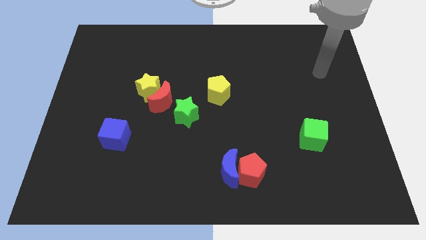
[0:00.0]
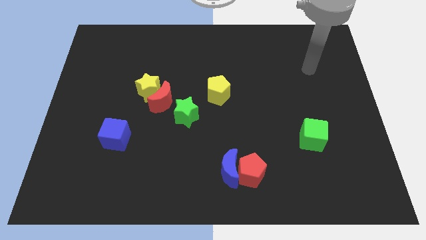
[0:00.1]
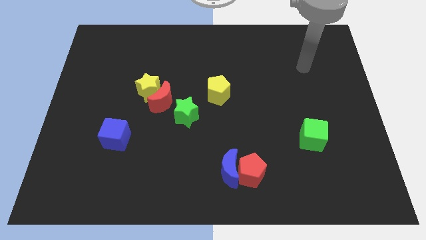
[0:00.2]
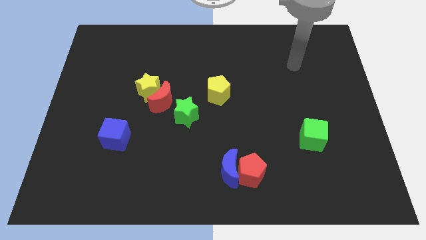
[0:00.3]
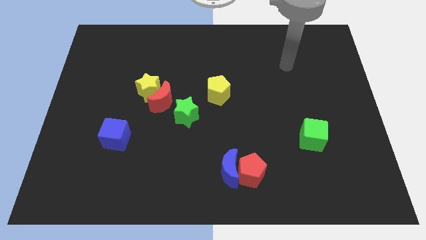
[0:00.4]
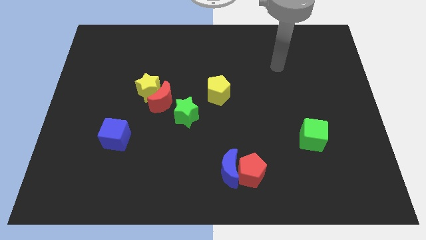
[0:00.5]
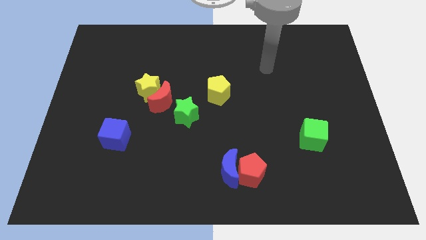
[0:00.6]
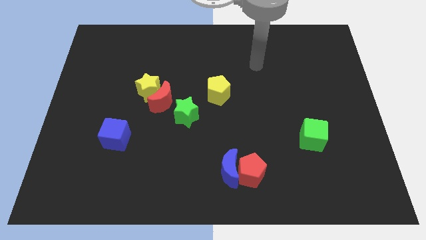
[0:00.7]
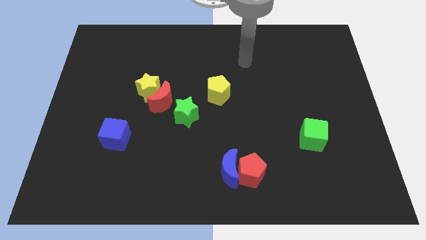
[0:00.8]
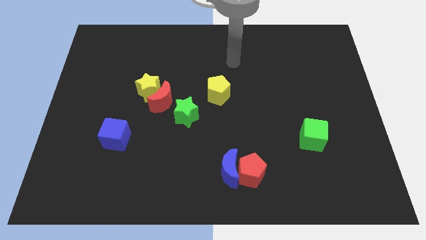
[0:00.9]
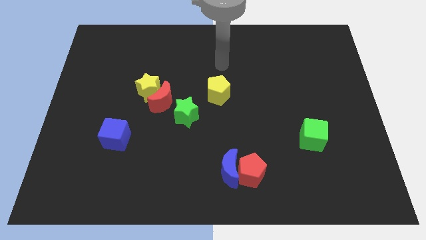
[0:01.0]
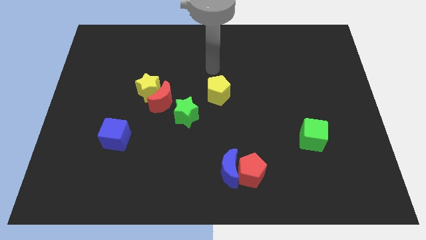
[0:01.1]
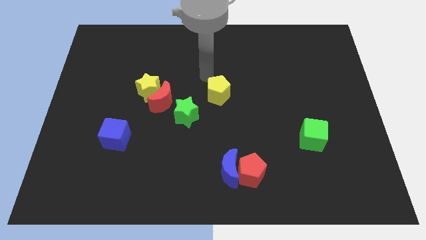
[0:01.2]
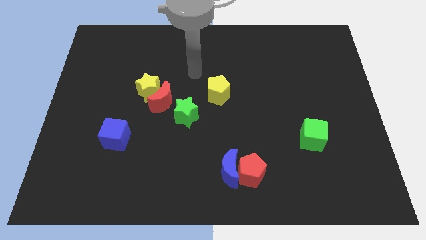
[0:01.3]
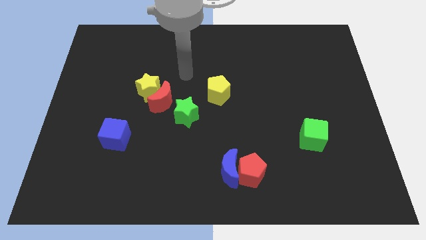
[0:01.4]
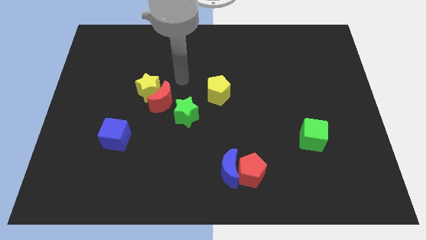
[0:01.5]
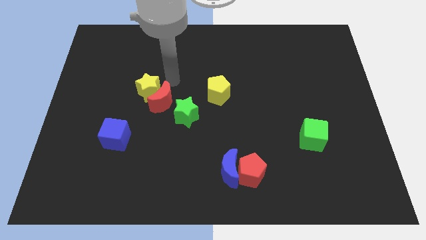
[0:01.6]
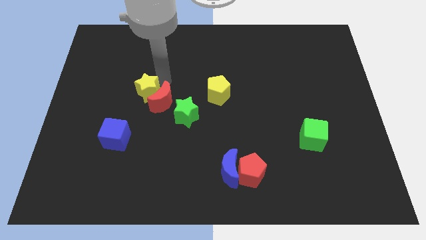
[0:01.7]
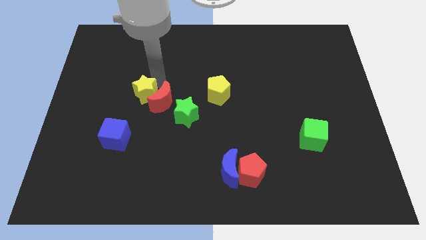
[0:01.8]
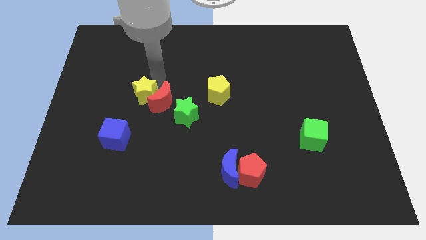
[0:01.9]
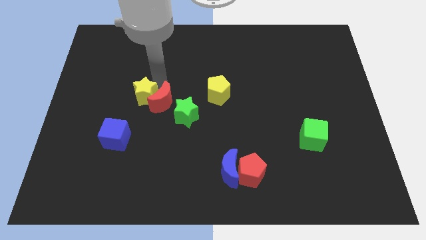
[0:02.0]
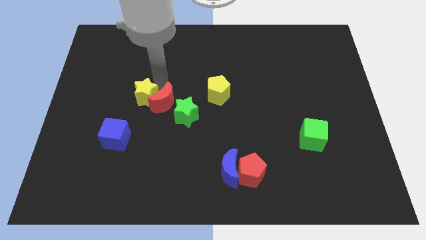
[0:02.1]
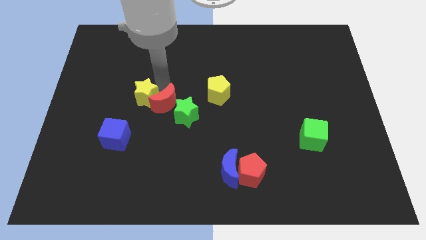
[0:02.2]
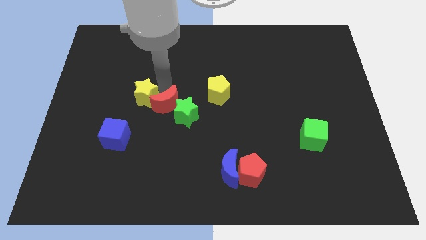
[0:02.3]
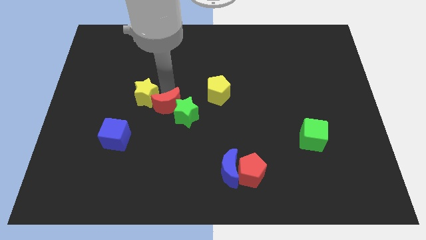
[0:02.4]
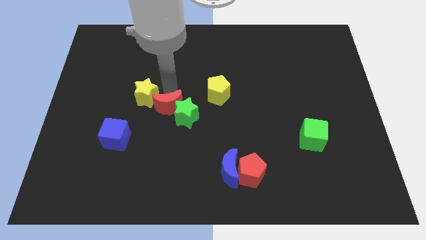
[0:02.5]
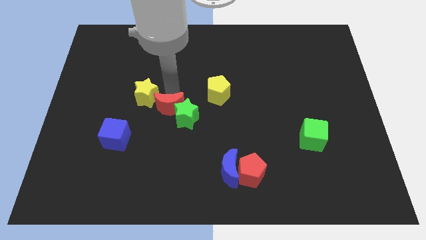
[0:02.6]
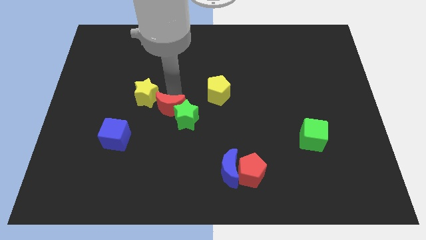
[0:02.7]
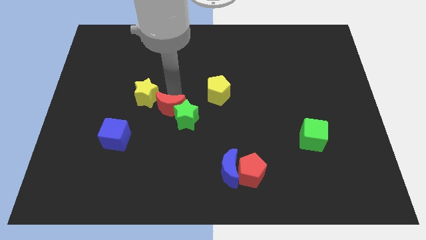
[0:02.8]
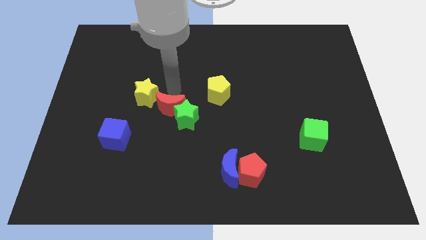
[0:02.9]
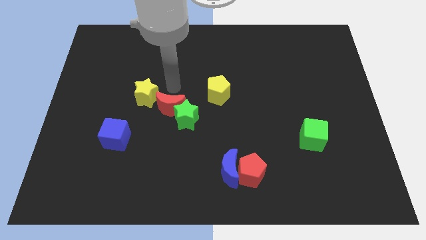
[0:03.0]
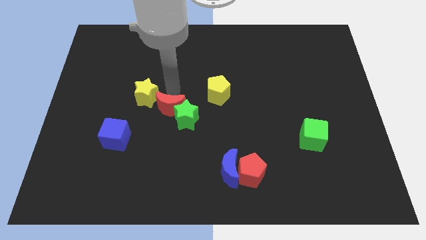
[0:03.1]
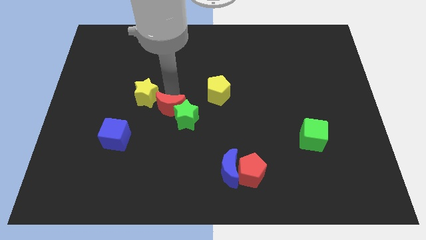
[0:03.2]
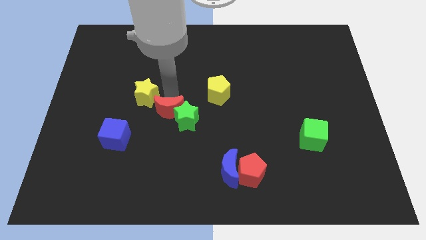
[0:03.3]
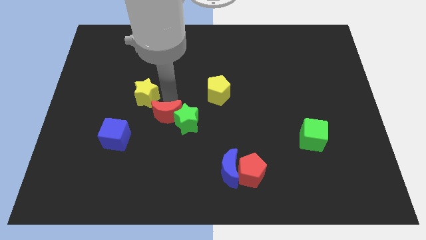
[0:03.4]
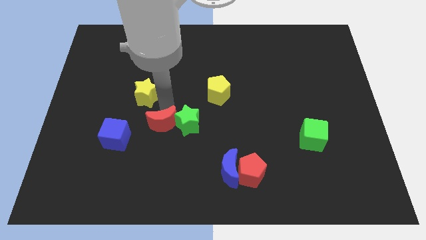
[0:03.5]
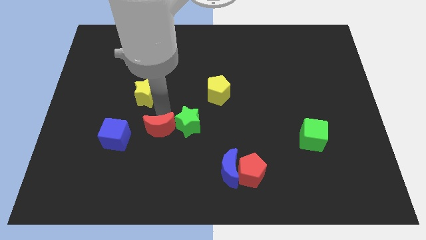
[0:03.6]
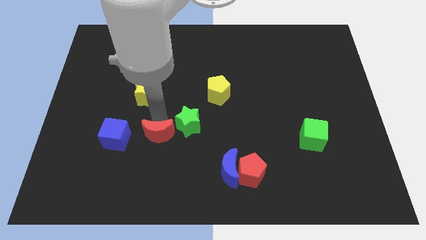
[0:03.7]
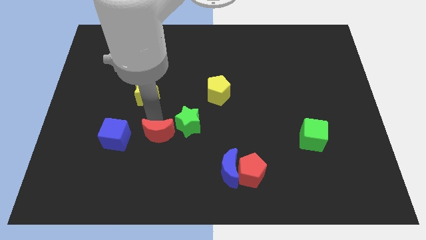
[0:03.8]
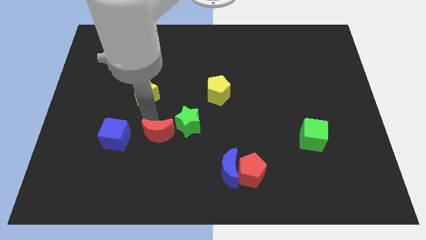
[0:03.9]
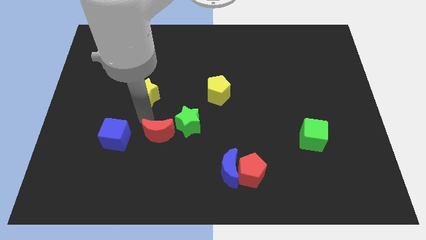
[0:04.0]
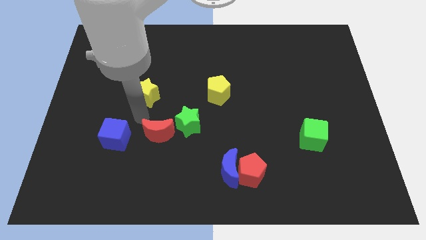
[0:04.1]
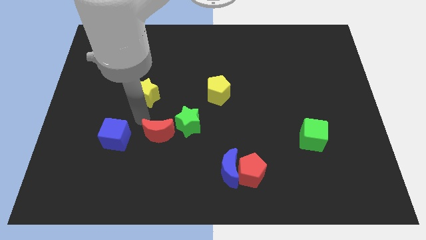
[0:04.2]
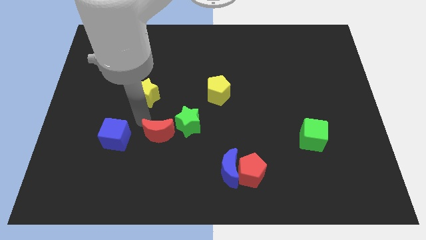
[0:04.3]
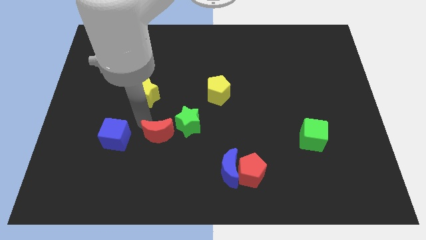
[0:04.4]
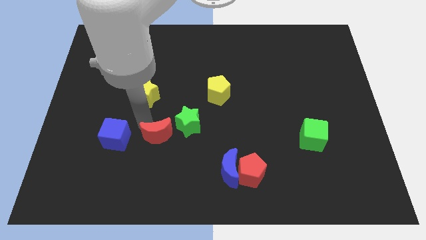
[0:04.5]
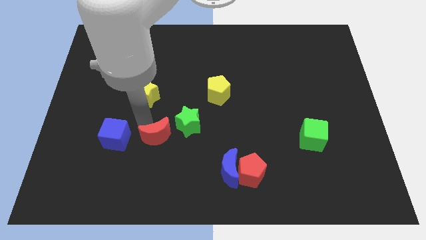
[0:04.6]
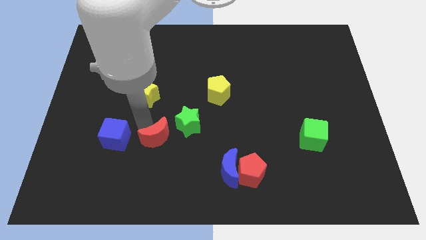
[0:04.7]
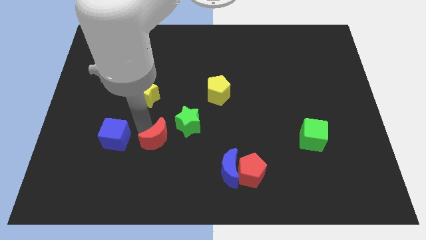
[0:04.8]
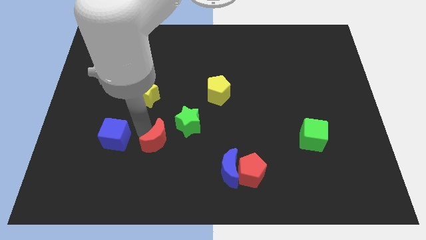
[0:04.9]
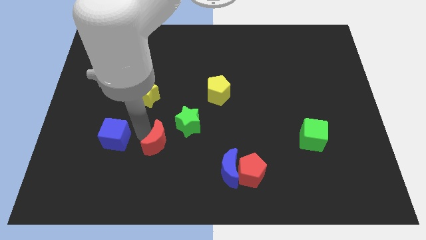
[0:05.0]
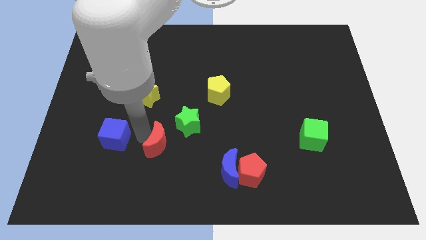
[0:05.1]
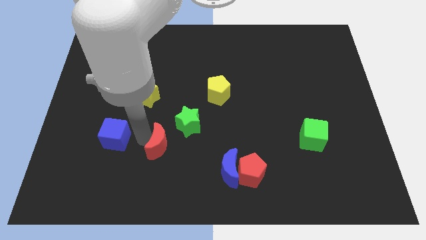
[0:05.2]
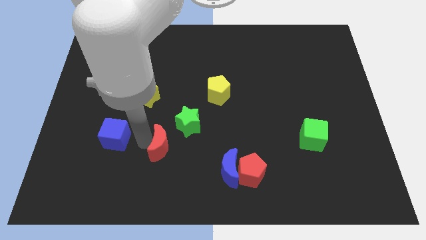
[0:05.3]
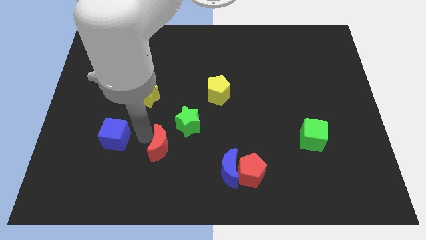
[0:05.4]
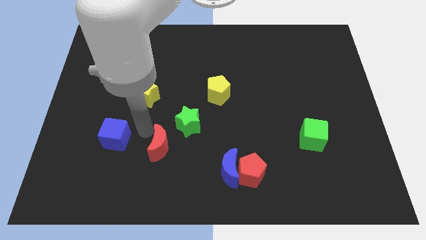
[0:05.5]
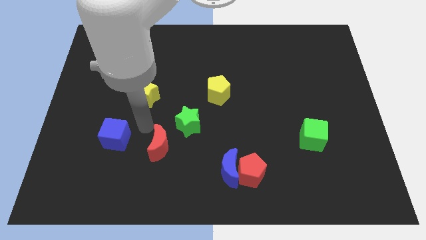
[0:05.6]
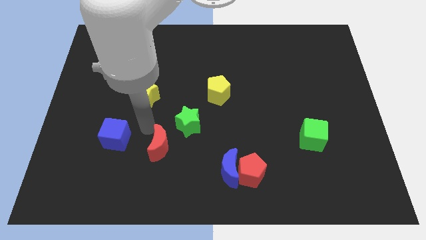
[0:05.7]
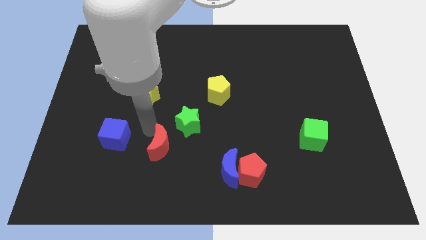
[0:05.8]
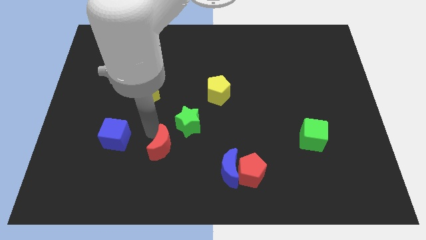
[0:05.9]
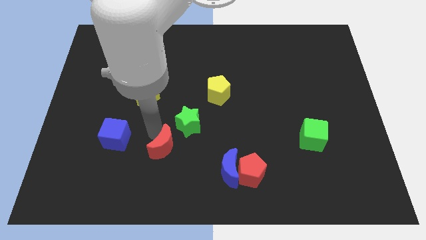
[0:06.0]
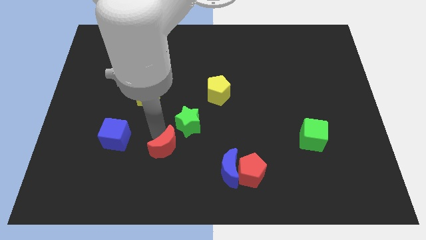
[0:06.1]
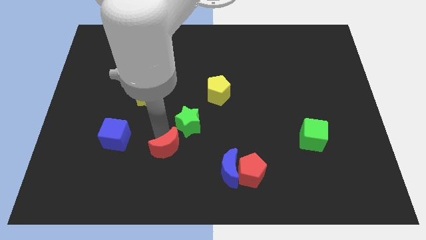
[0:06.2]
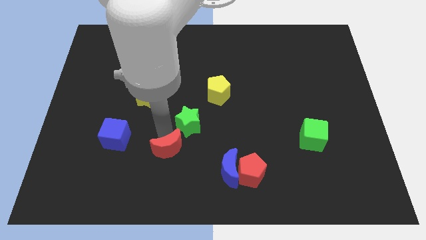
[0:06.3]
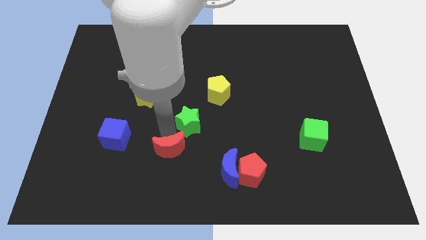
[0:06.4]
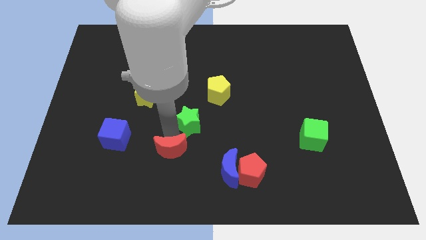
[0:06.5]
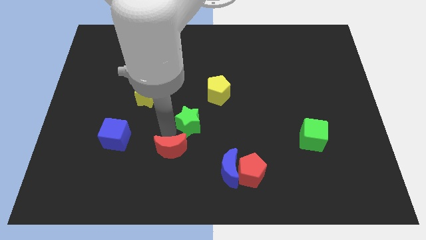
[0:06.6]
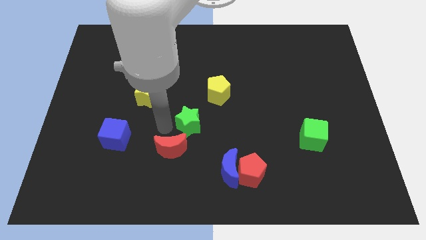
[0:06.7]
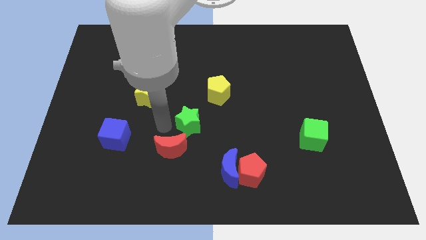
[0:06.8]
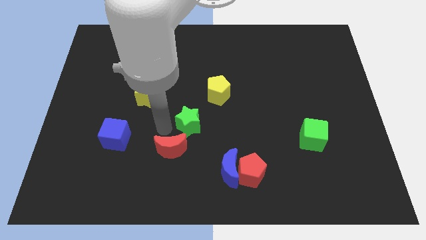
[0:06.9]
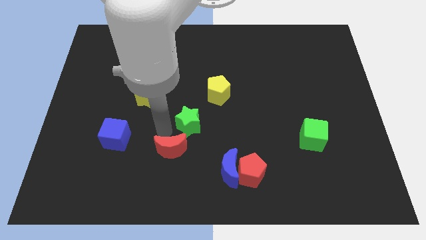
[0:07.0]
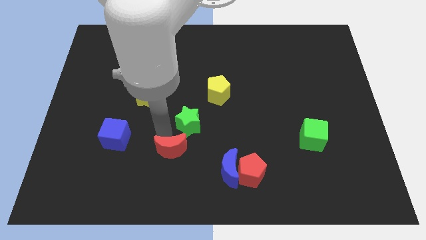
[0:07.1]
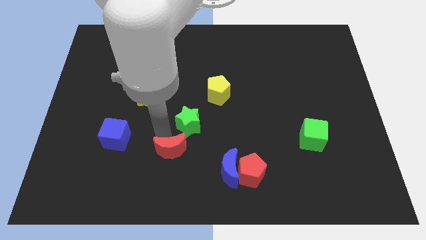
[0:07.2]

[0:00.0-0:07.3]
push the red moon left of the blue moon
